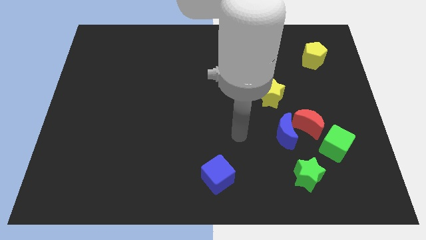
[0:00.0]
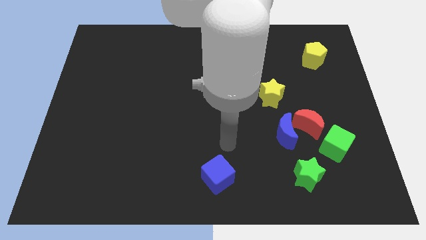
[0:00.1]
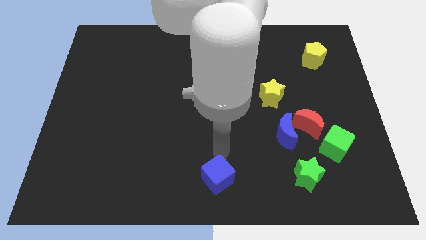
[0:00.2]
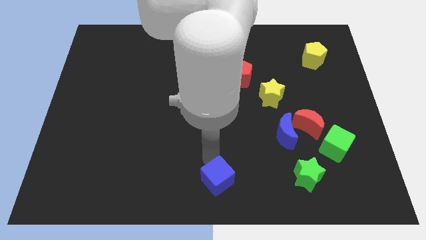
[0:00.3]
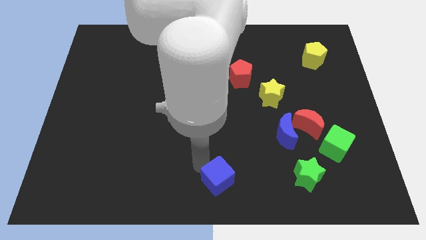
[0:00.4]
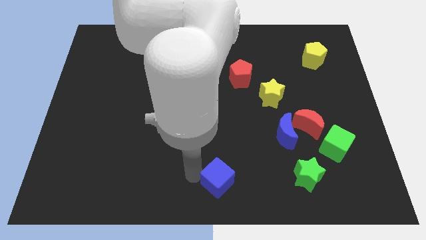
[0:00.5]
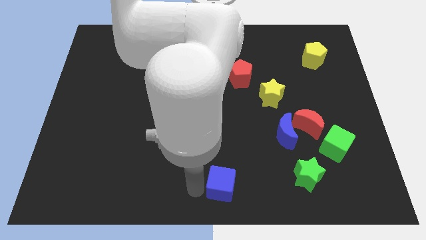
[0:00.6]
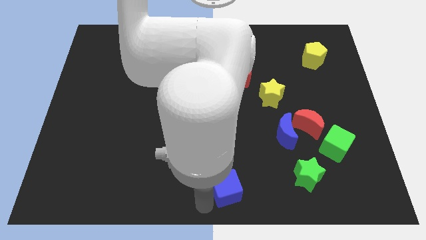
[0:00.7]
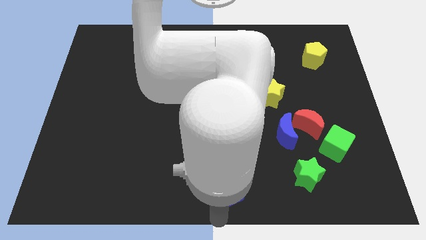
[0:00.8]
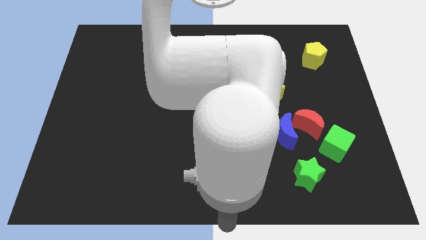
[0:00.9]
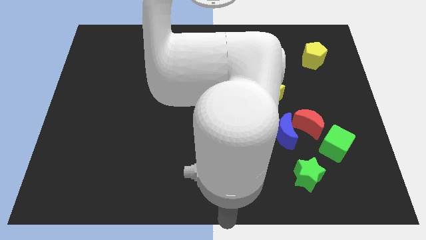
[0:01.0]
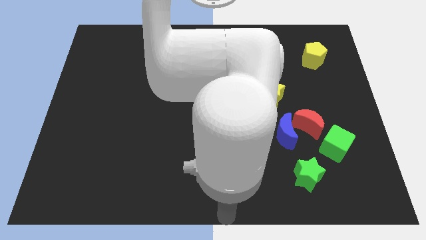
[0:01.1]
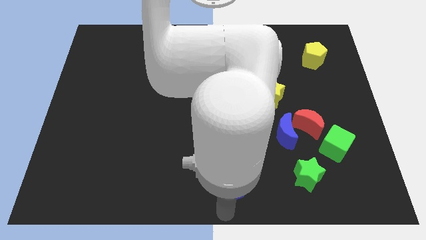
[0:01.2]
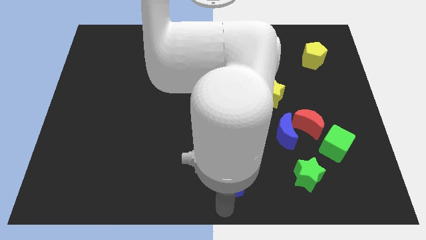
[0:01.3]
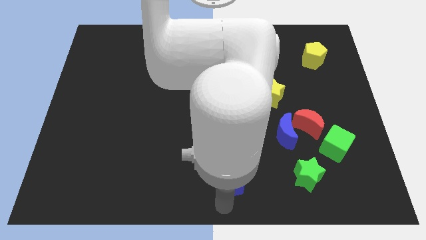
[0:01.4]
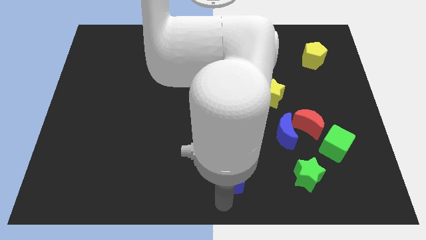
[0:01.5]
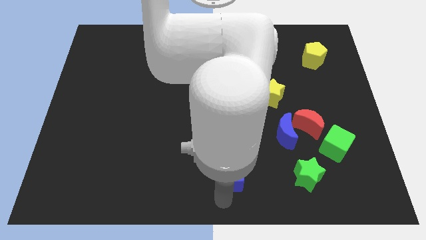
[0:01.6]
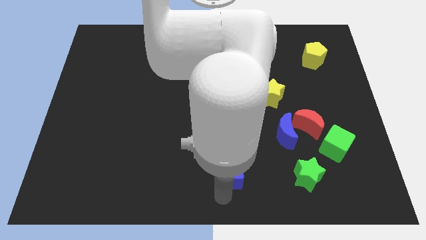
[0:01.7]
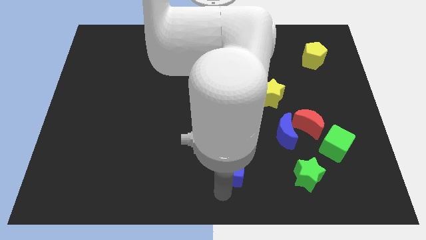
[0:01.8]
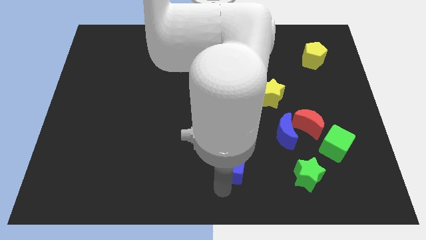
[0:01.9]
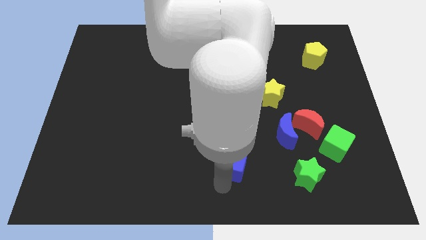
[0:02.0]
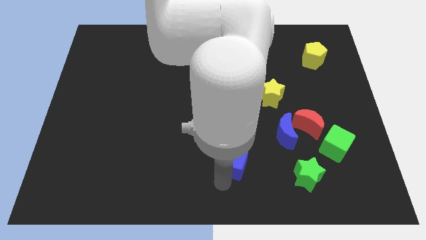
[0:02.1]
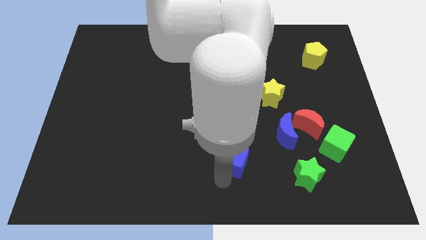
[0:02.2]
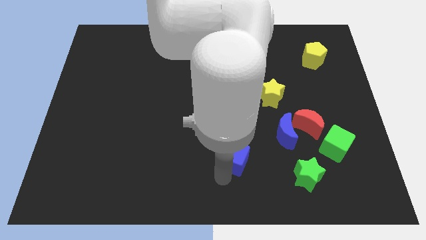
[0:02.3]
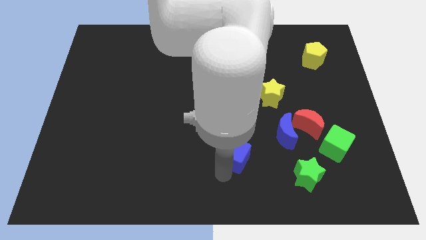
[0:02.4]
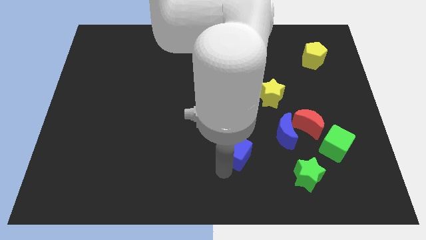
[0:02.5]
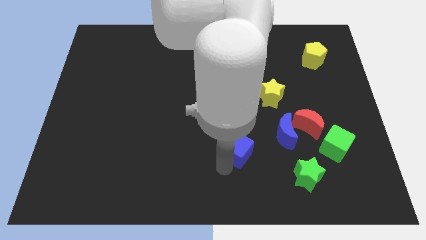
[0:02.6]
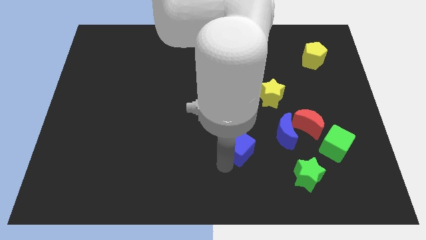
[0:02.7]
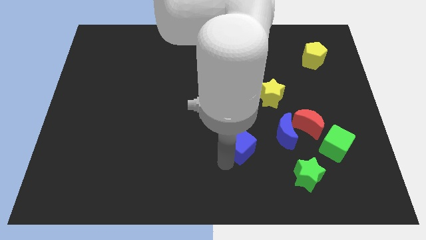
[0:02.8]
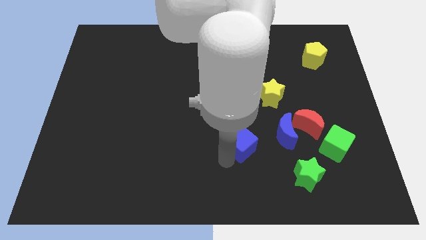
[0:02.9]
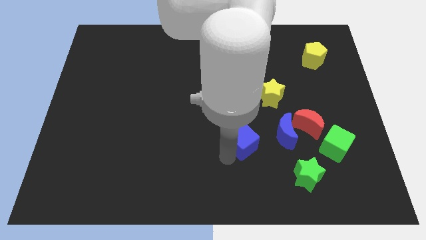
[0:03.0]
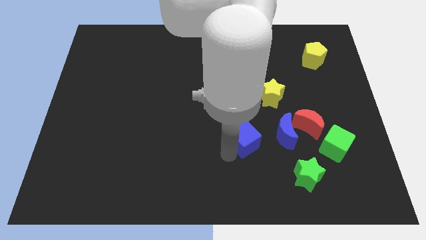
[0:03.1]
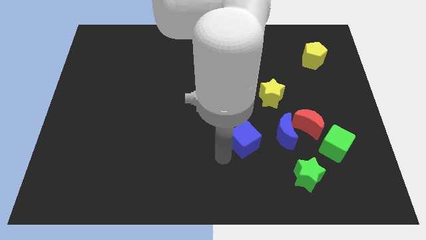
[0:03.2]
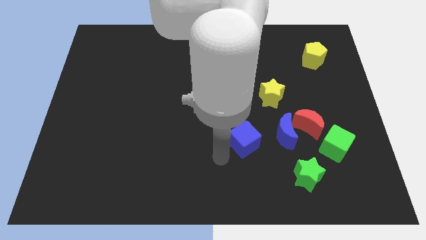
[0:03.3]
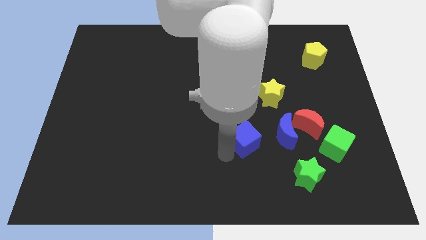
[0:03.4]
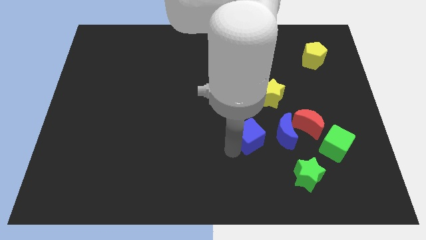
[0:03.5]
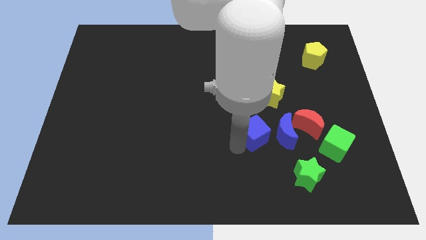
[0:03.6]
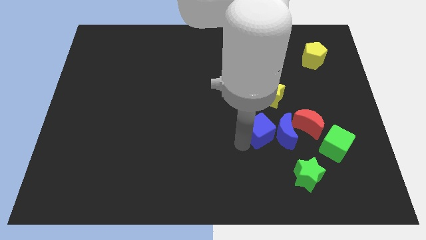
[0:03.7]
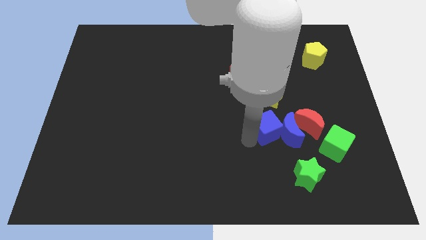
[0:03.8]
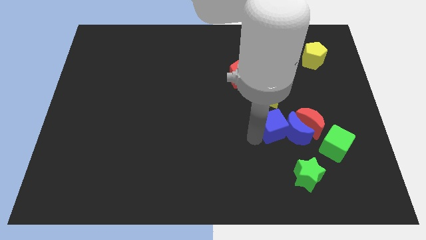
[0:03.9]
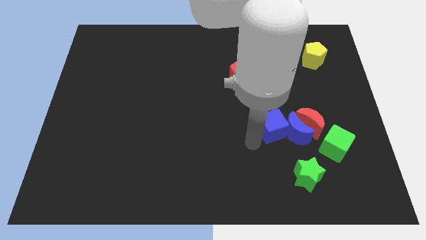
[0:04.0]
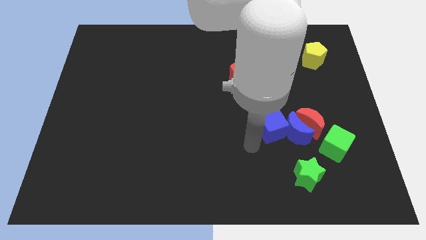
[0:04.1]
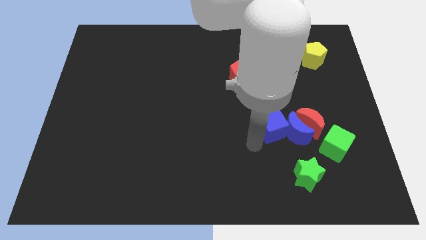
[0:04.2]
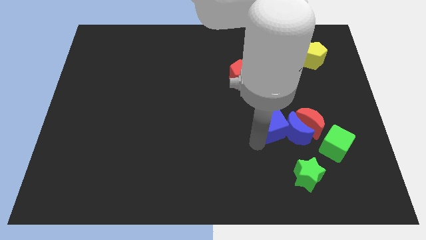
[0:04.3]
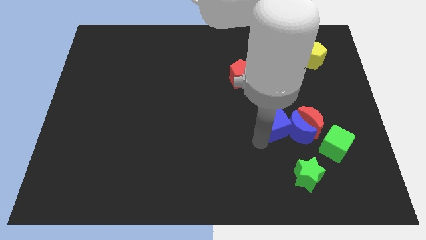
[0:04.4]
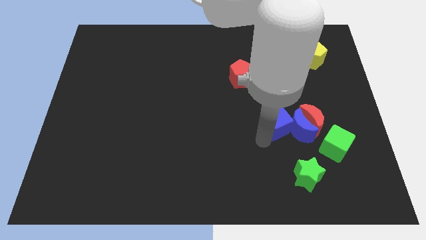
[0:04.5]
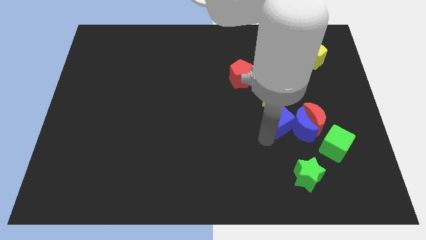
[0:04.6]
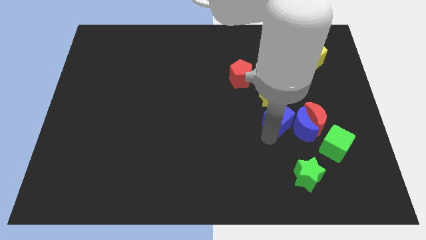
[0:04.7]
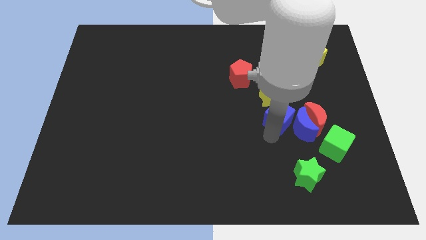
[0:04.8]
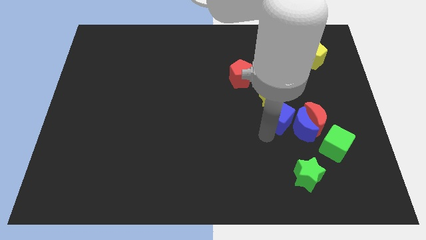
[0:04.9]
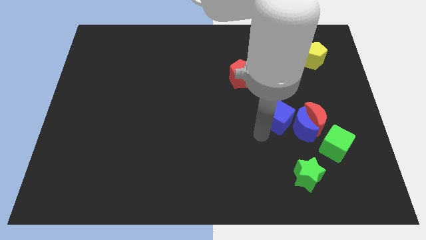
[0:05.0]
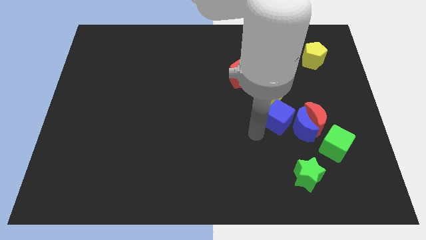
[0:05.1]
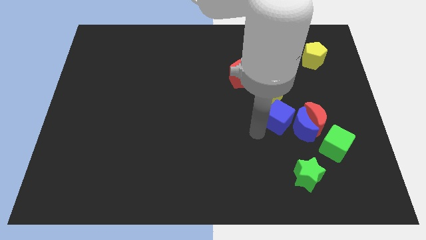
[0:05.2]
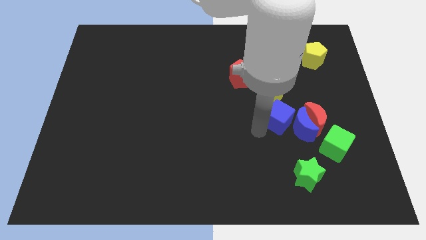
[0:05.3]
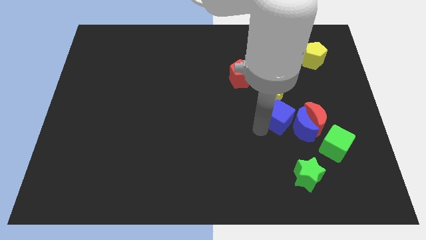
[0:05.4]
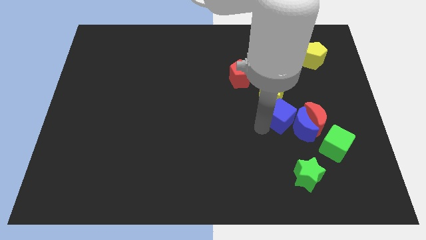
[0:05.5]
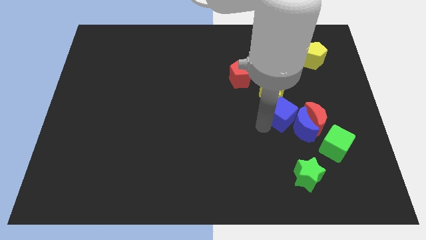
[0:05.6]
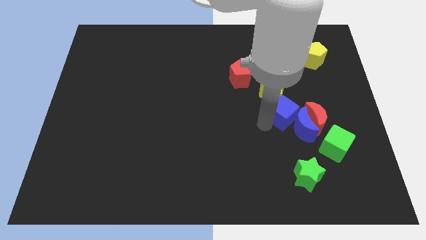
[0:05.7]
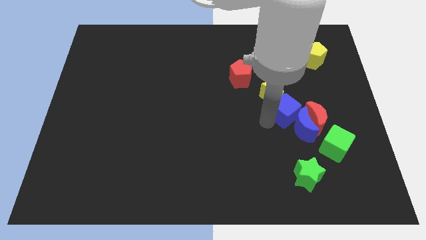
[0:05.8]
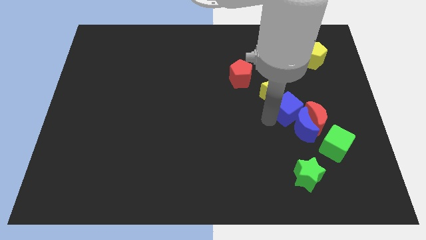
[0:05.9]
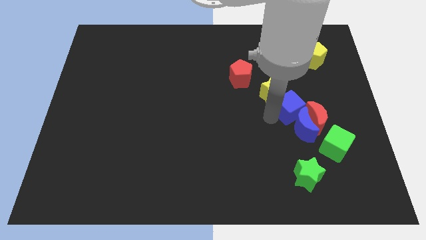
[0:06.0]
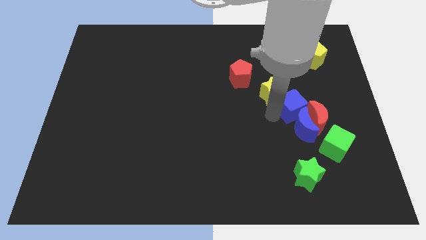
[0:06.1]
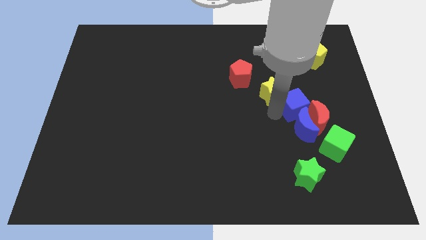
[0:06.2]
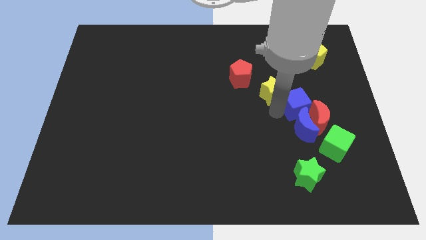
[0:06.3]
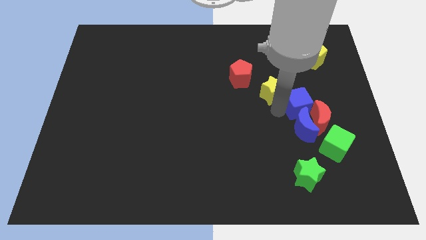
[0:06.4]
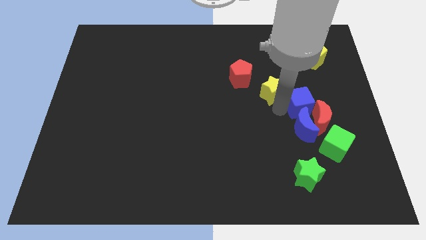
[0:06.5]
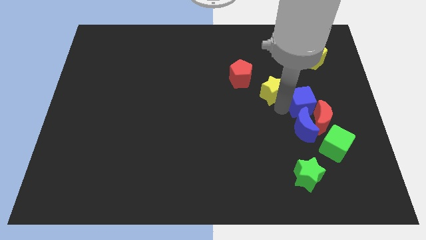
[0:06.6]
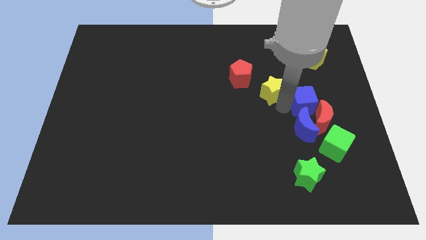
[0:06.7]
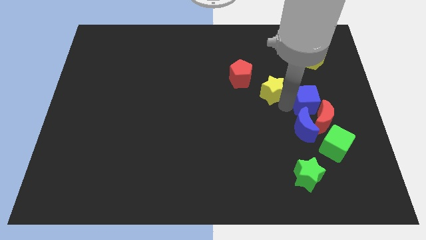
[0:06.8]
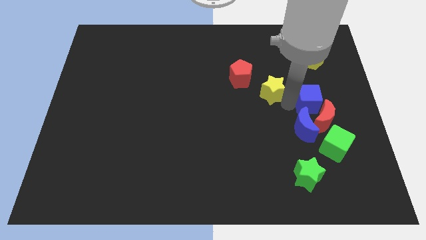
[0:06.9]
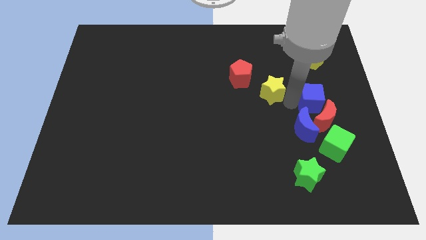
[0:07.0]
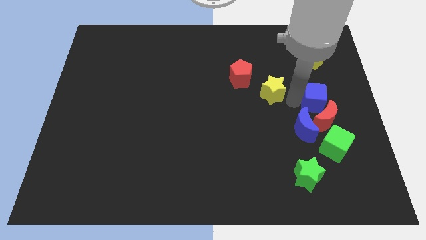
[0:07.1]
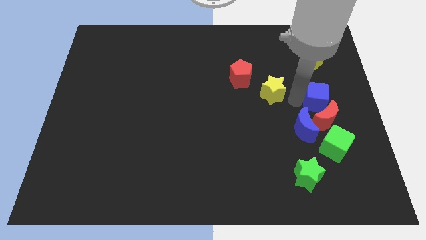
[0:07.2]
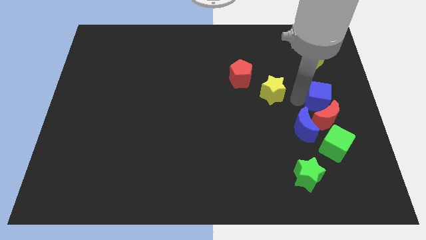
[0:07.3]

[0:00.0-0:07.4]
push the blue cube to the center right
